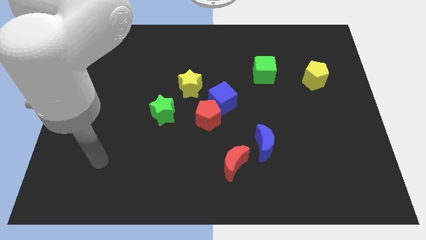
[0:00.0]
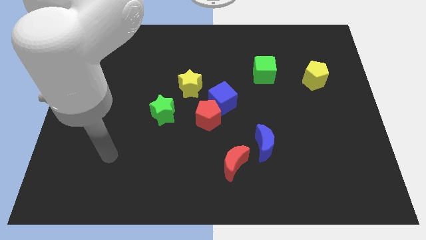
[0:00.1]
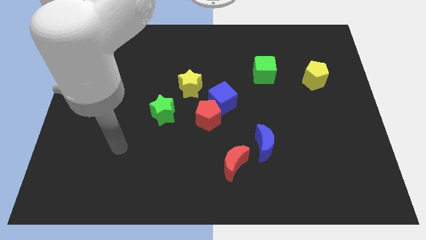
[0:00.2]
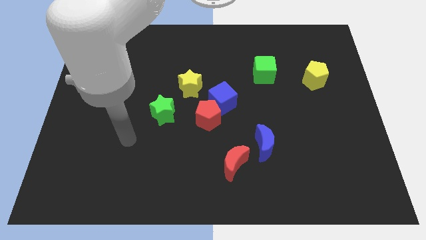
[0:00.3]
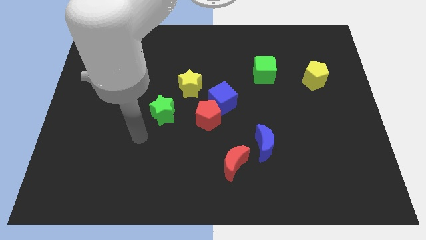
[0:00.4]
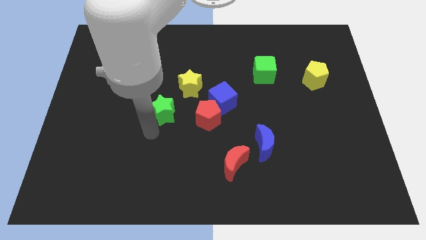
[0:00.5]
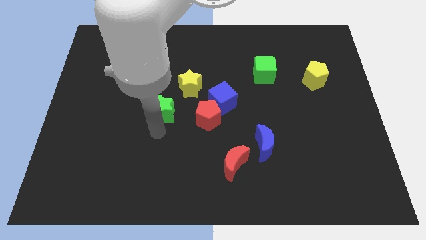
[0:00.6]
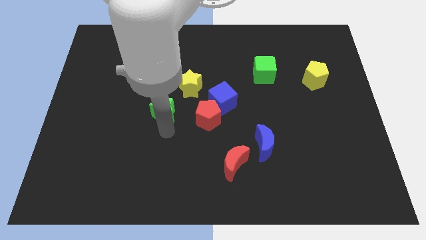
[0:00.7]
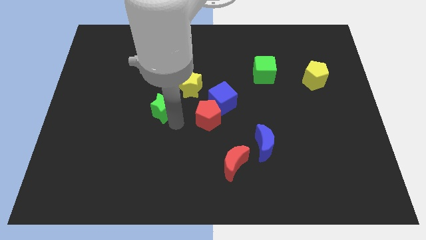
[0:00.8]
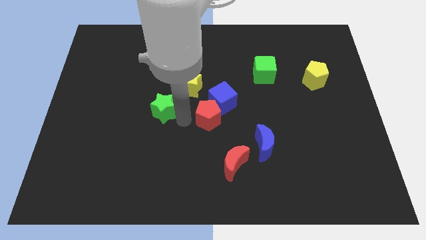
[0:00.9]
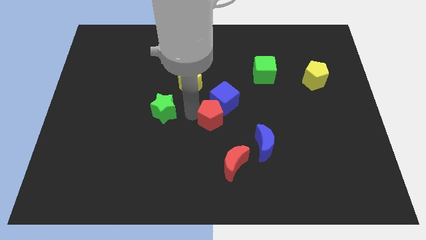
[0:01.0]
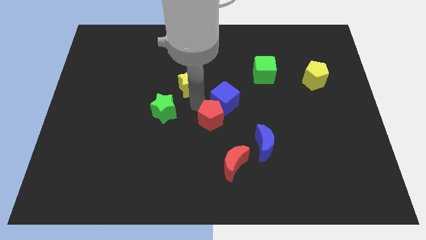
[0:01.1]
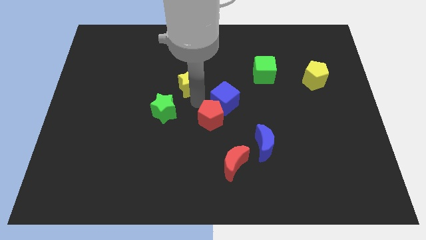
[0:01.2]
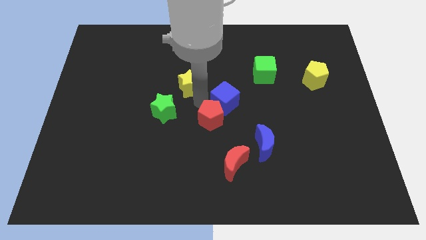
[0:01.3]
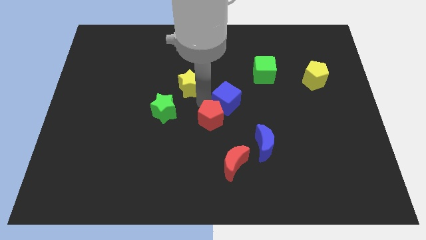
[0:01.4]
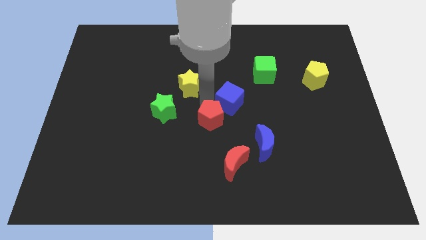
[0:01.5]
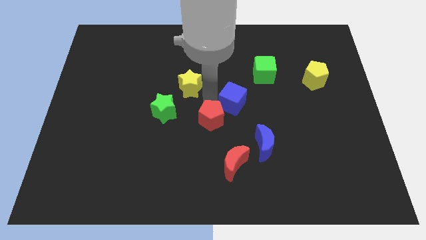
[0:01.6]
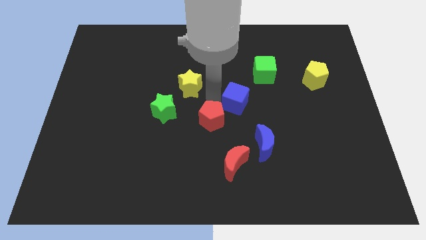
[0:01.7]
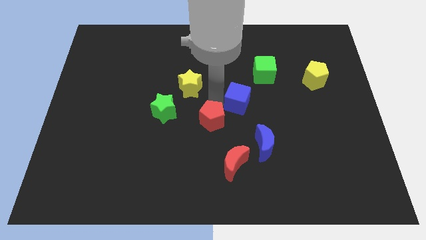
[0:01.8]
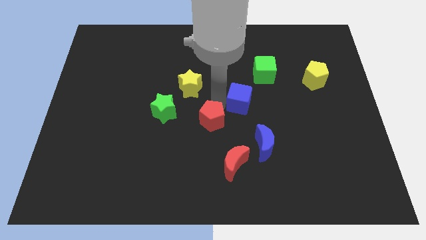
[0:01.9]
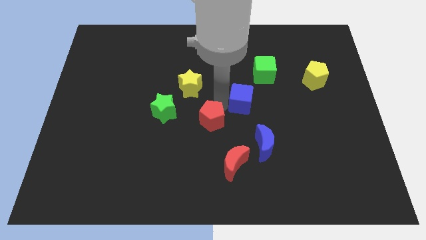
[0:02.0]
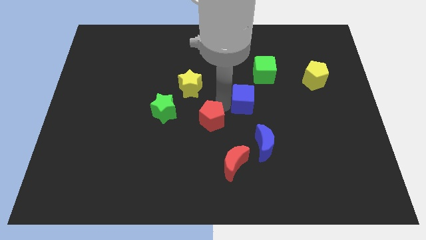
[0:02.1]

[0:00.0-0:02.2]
move the blue cube away from the red pentagon and yellow star

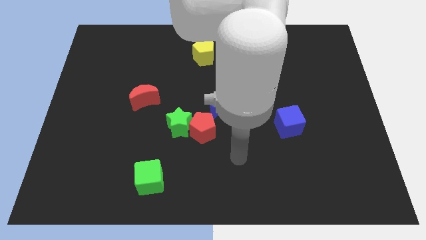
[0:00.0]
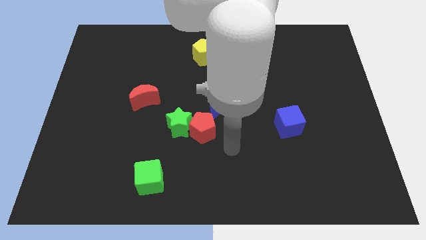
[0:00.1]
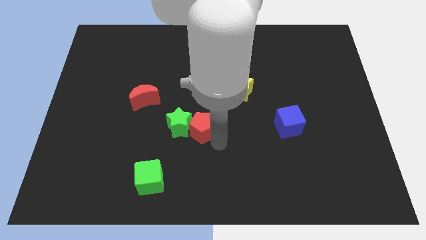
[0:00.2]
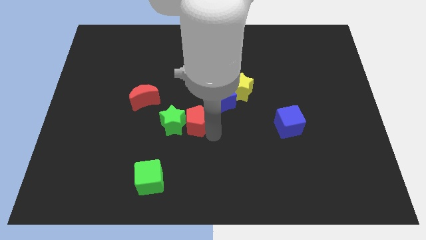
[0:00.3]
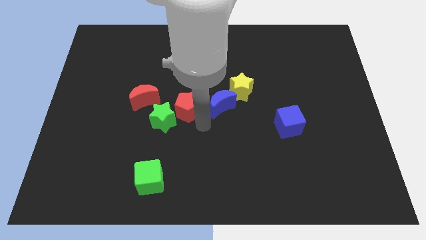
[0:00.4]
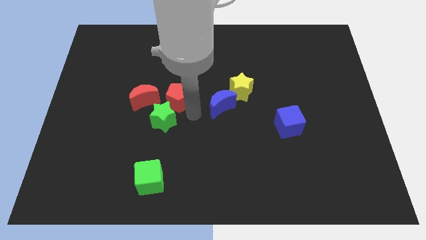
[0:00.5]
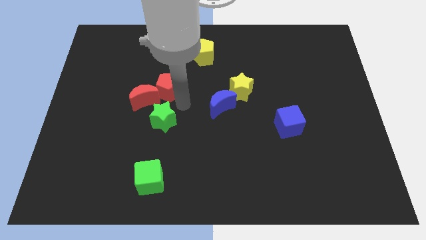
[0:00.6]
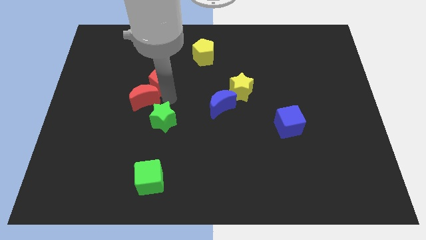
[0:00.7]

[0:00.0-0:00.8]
move the green star away from the red pentagon

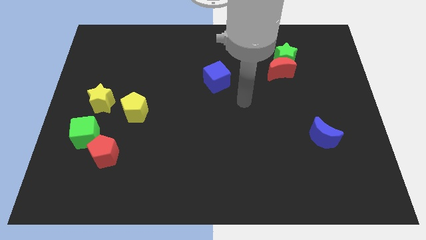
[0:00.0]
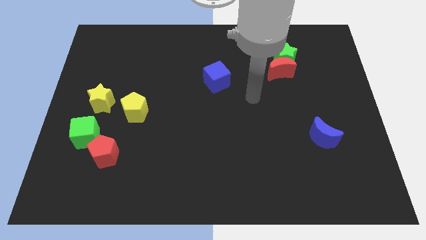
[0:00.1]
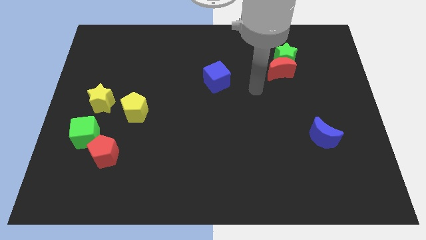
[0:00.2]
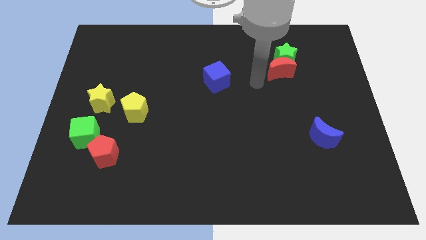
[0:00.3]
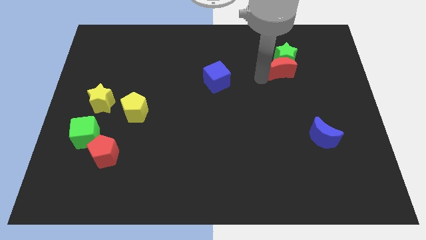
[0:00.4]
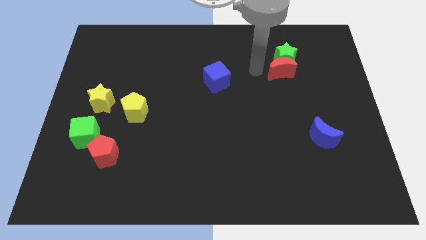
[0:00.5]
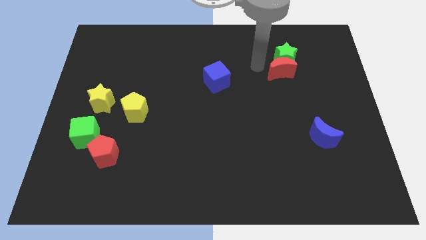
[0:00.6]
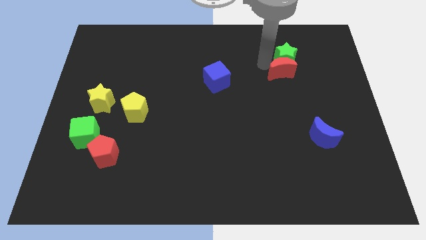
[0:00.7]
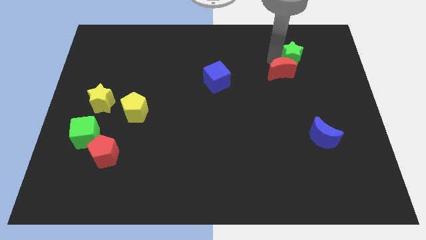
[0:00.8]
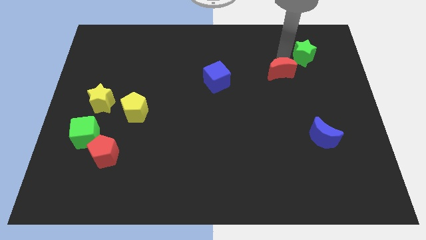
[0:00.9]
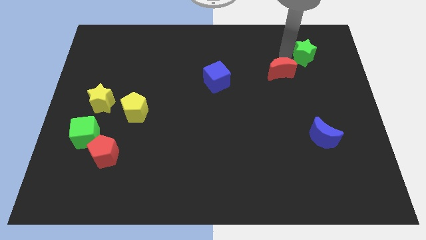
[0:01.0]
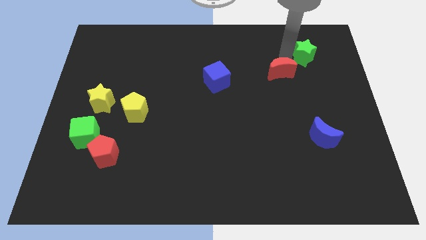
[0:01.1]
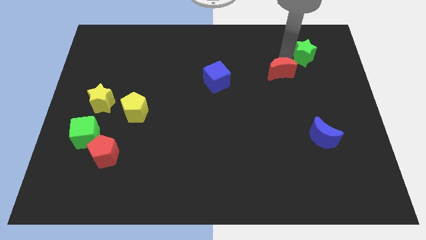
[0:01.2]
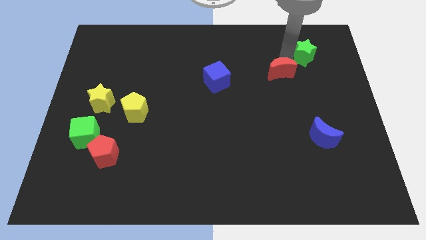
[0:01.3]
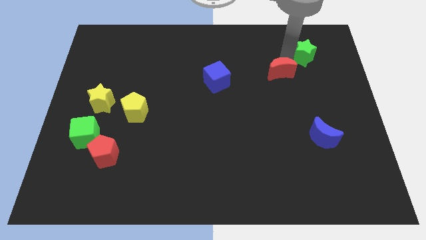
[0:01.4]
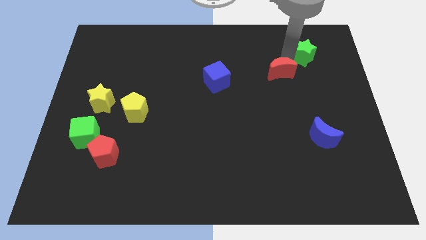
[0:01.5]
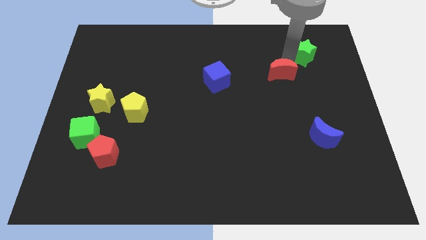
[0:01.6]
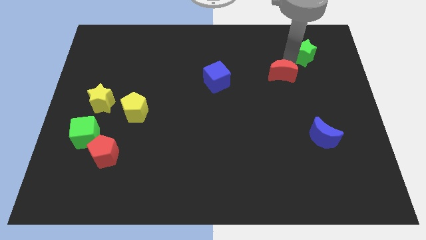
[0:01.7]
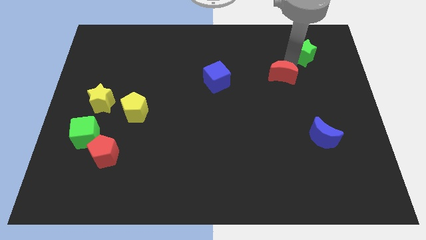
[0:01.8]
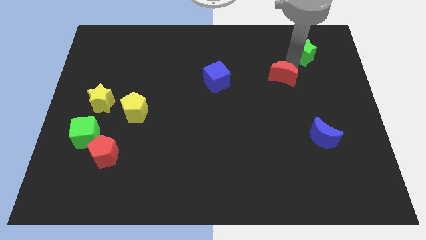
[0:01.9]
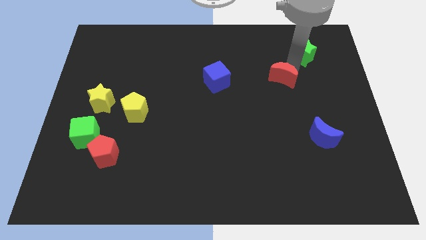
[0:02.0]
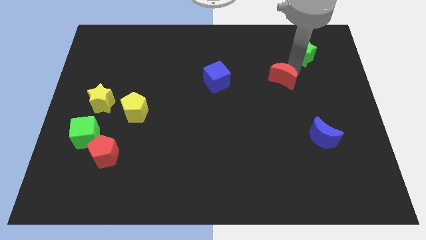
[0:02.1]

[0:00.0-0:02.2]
pull the red moon apart from the green star

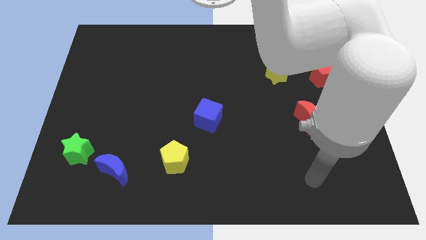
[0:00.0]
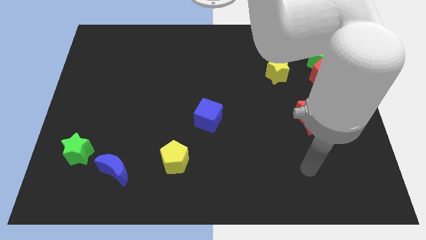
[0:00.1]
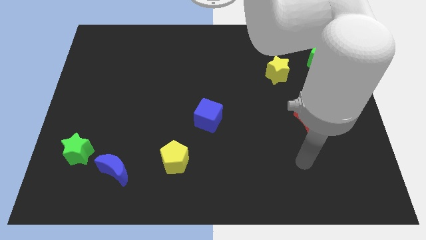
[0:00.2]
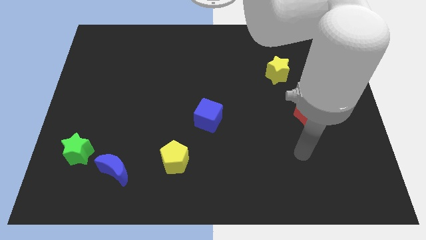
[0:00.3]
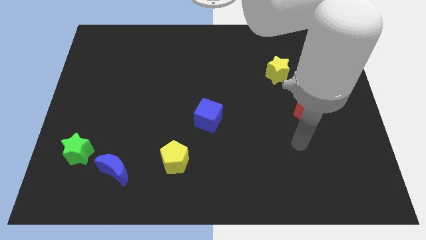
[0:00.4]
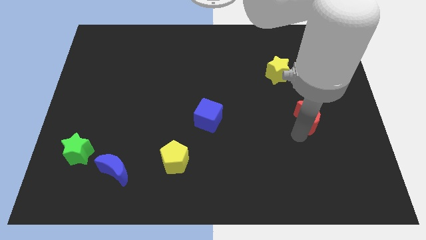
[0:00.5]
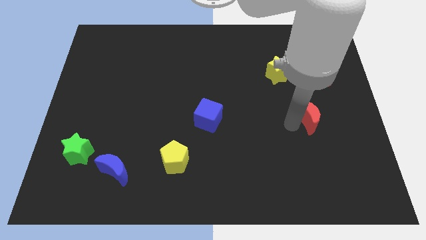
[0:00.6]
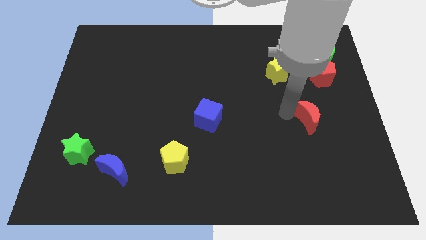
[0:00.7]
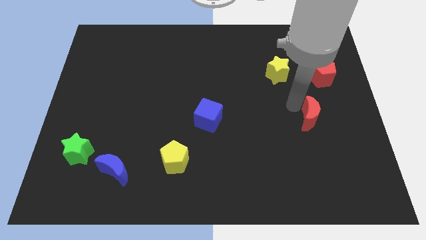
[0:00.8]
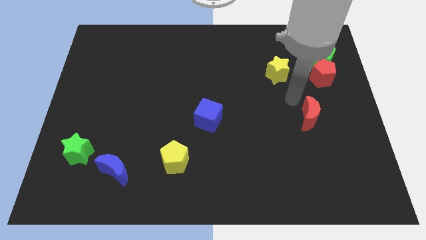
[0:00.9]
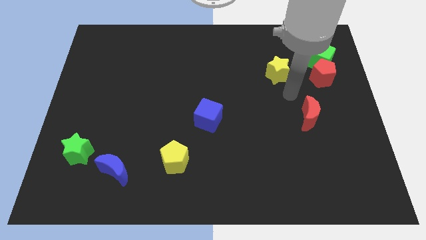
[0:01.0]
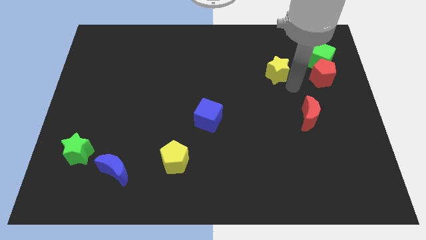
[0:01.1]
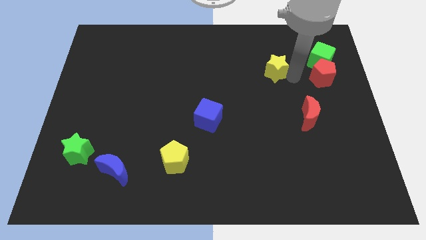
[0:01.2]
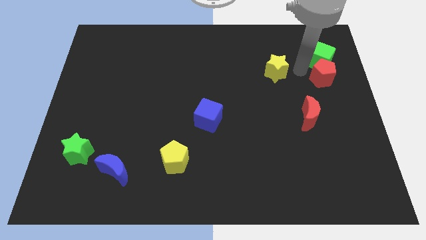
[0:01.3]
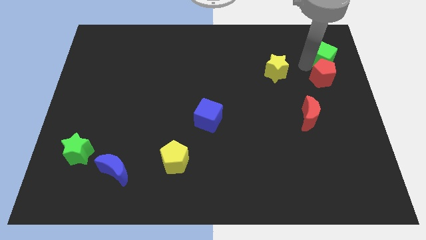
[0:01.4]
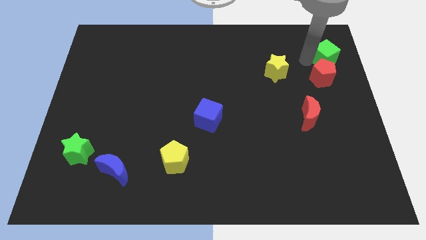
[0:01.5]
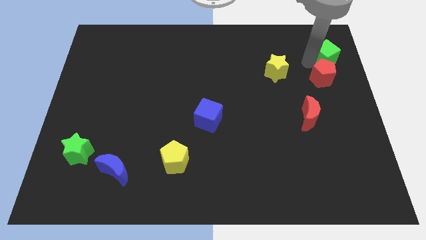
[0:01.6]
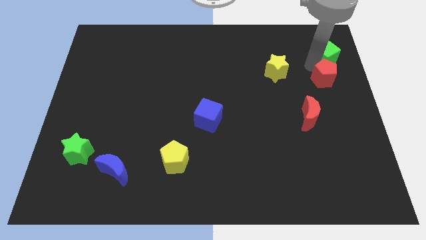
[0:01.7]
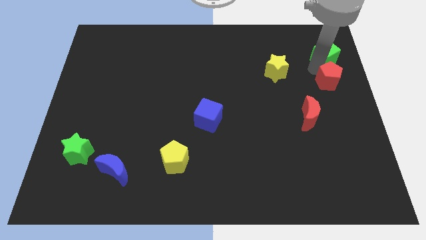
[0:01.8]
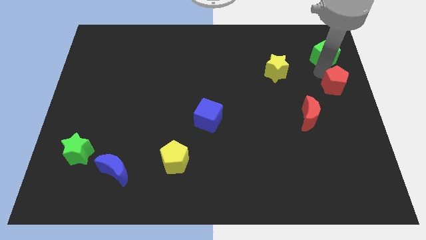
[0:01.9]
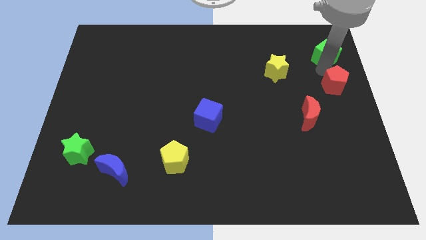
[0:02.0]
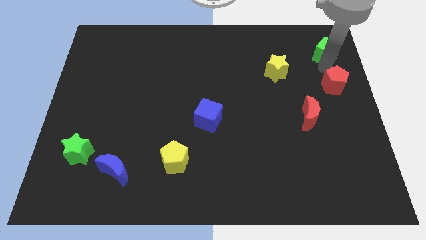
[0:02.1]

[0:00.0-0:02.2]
pull the red pentagon apart from the green cube

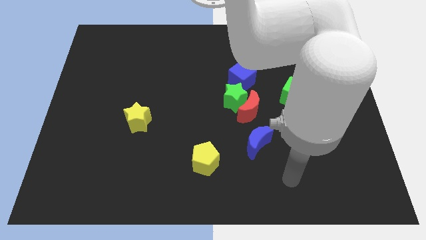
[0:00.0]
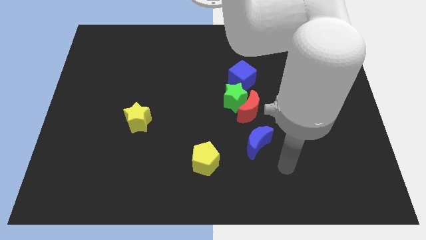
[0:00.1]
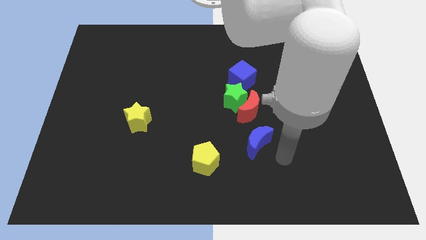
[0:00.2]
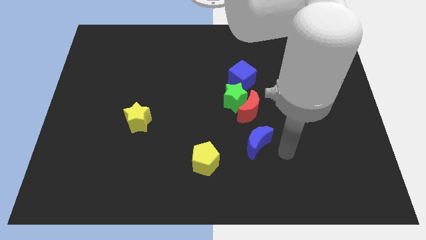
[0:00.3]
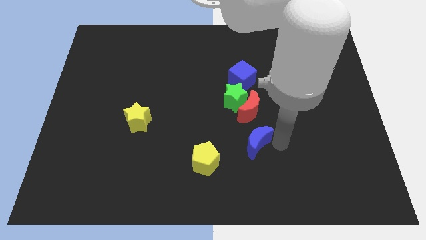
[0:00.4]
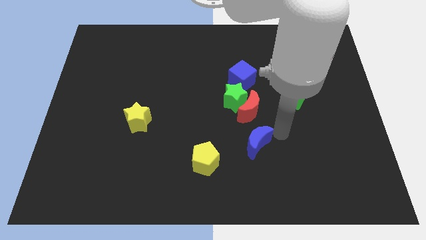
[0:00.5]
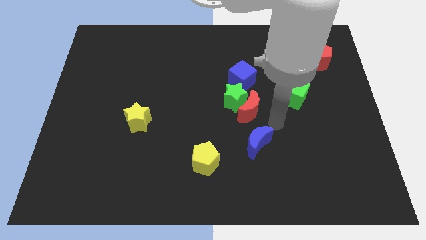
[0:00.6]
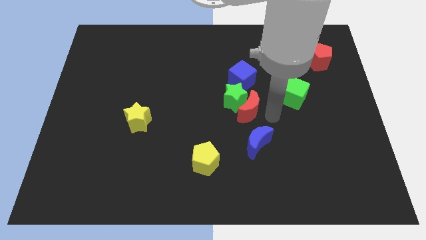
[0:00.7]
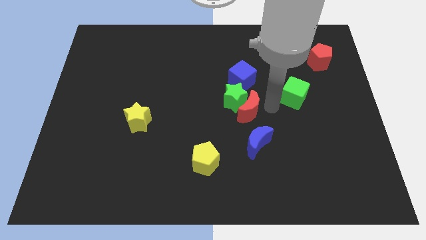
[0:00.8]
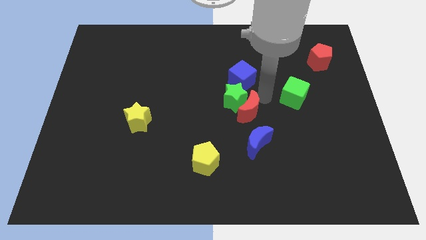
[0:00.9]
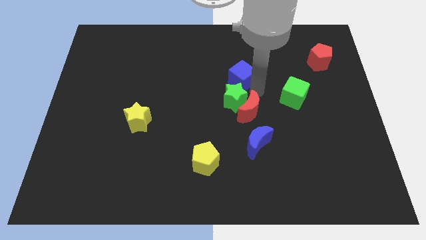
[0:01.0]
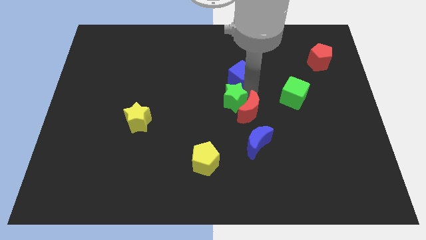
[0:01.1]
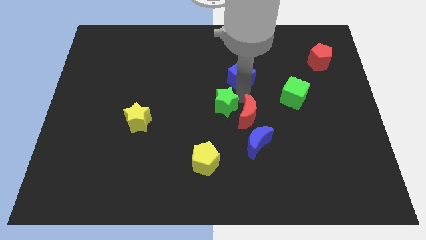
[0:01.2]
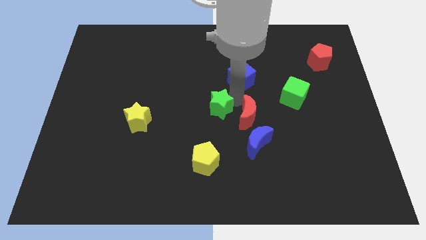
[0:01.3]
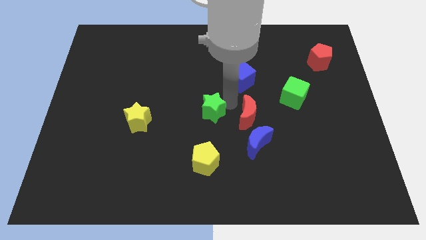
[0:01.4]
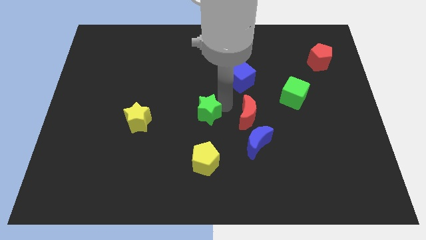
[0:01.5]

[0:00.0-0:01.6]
pull the green star apart from the red moon and blue cube

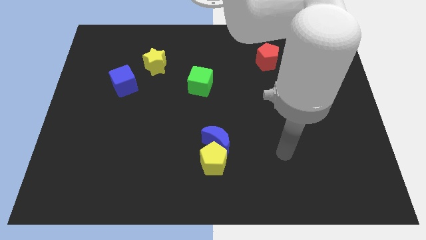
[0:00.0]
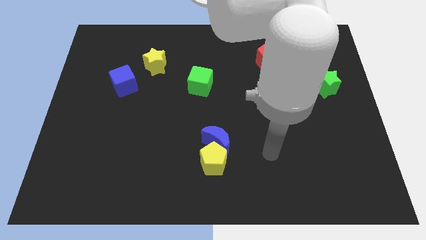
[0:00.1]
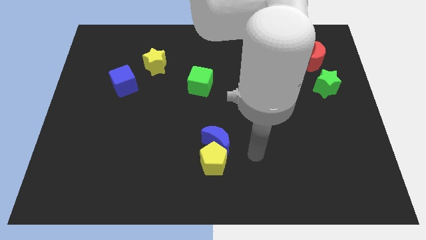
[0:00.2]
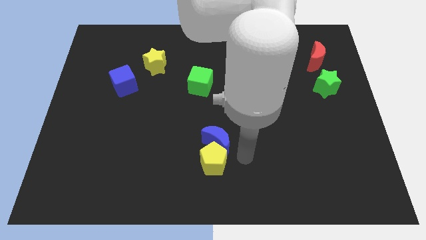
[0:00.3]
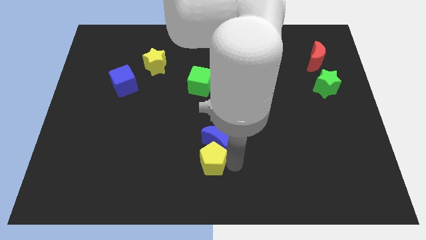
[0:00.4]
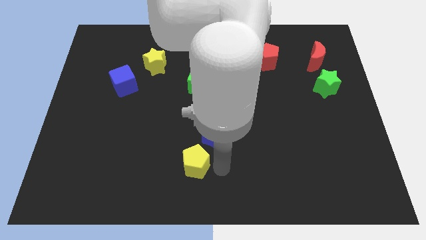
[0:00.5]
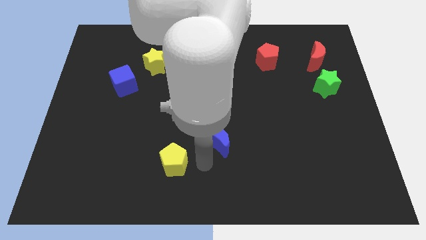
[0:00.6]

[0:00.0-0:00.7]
separate the blue moon from the yellow pentagon
